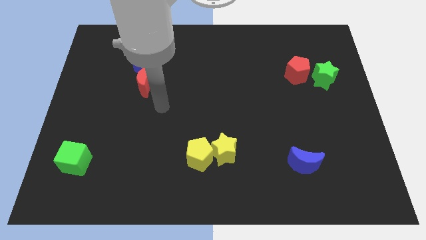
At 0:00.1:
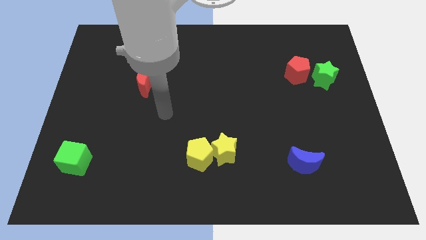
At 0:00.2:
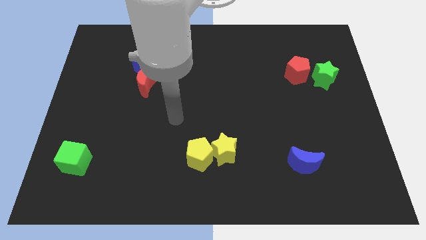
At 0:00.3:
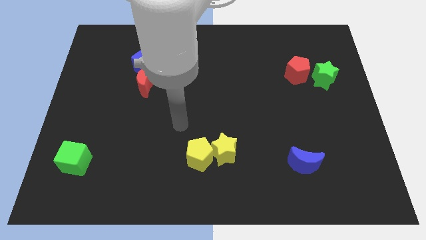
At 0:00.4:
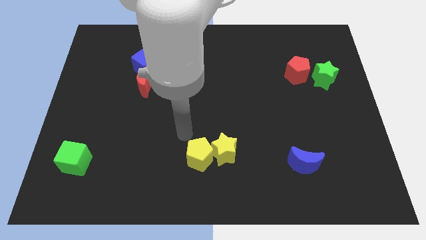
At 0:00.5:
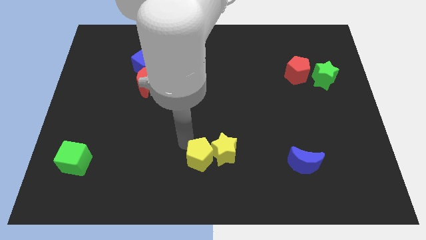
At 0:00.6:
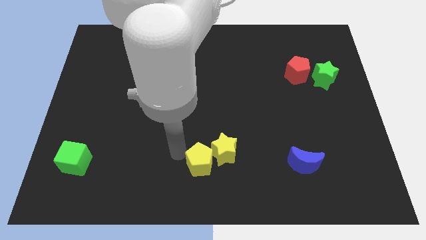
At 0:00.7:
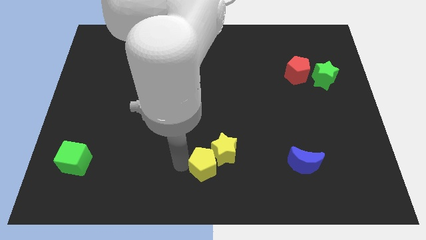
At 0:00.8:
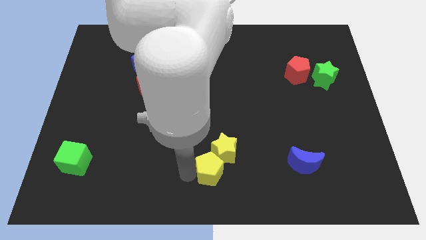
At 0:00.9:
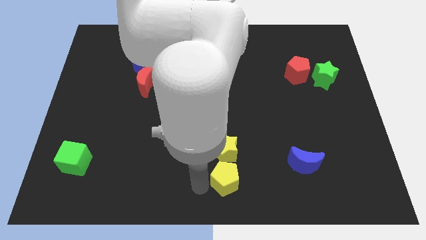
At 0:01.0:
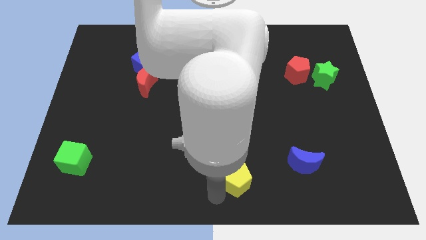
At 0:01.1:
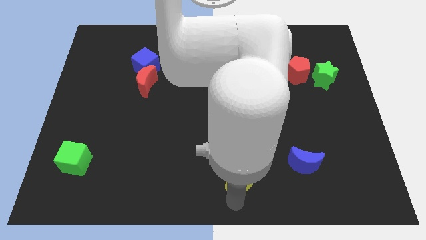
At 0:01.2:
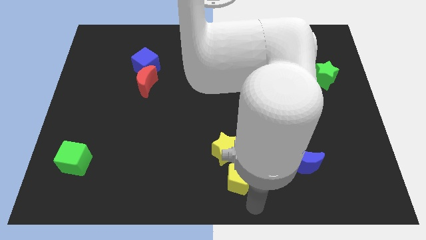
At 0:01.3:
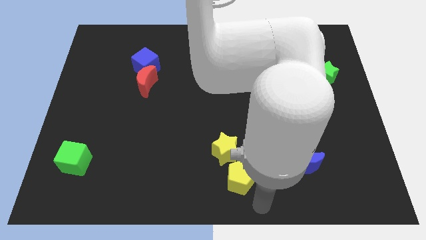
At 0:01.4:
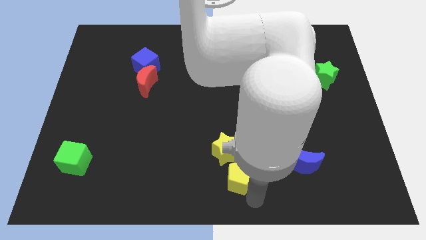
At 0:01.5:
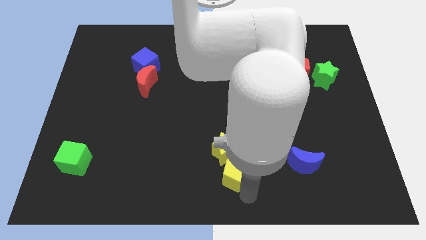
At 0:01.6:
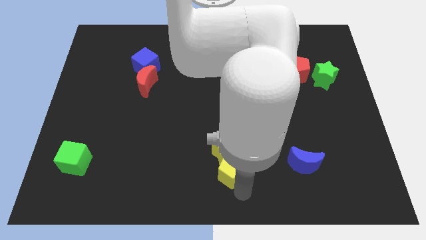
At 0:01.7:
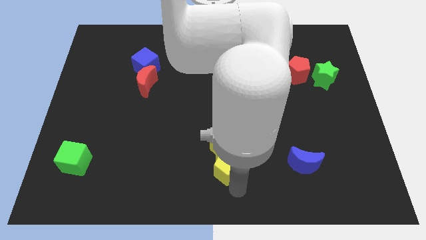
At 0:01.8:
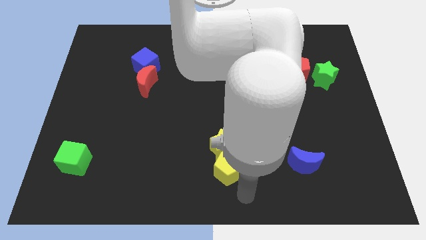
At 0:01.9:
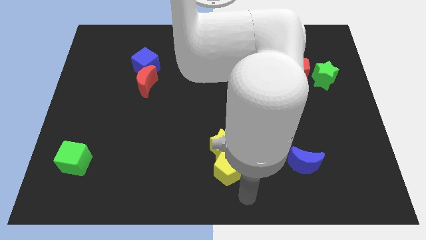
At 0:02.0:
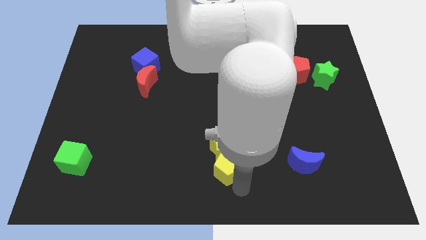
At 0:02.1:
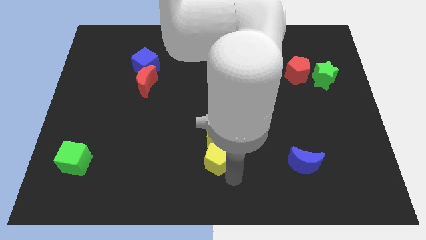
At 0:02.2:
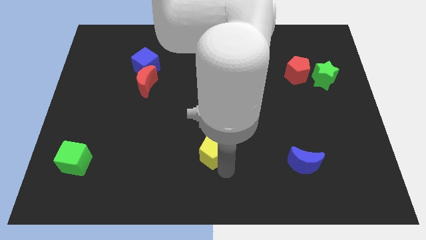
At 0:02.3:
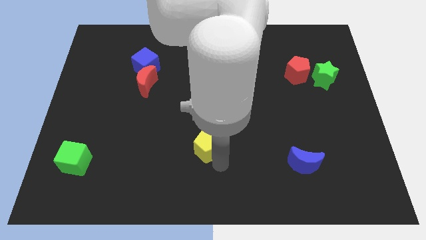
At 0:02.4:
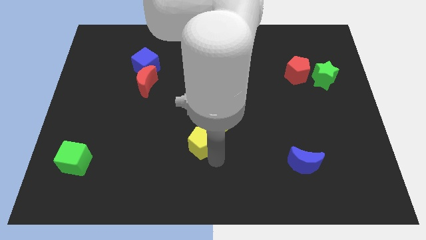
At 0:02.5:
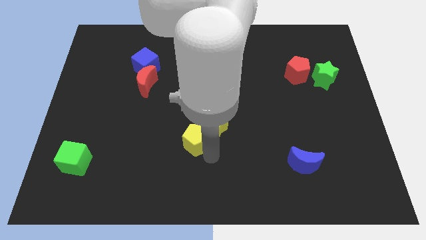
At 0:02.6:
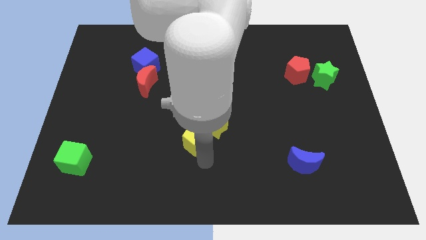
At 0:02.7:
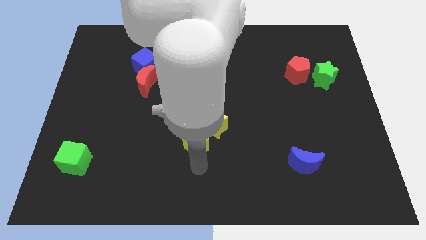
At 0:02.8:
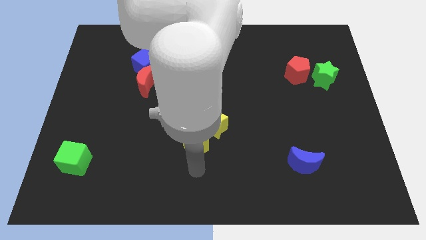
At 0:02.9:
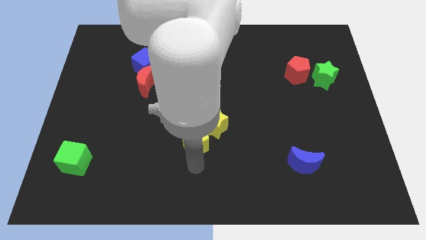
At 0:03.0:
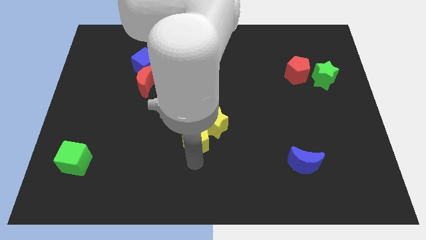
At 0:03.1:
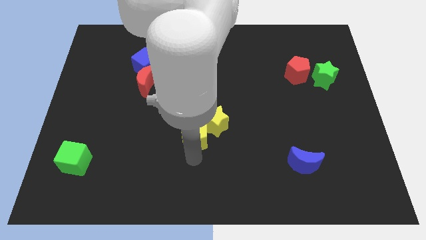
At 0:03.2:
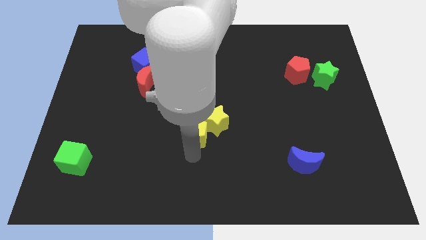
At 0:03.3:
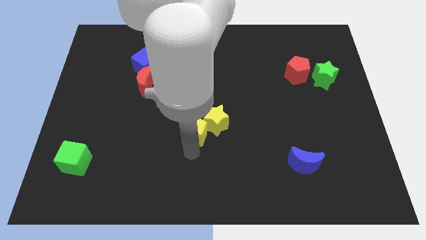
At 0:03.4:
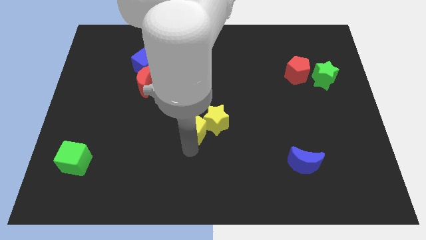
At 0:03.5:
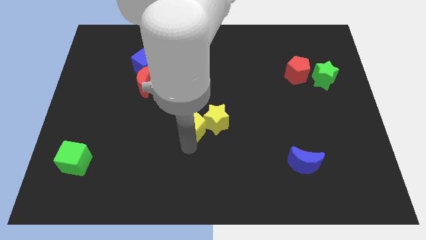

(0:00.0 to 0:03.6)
push the yellow pentagon a bit upwards

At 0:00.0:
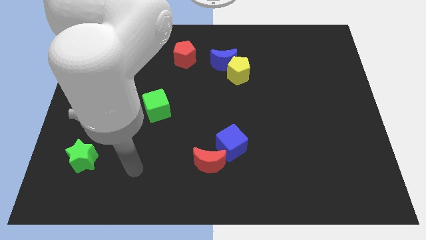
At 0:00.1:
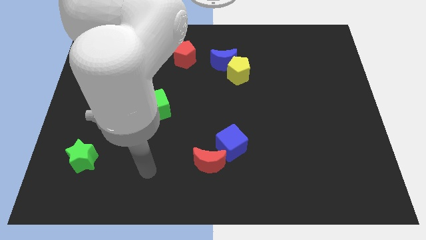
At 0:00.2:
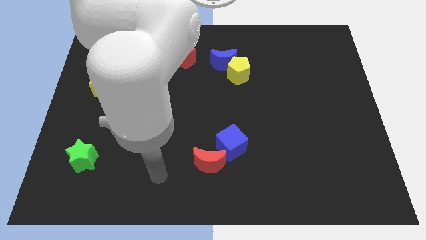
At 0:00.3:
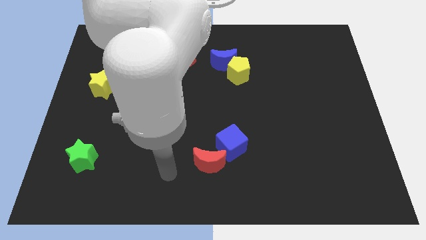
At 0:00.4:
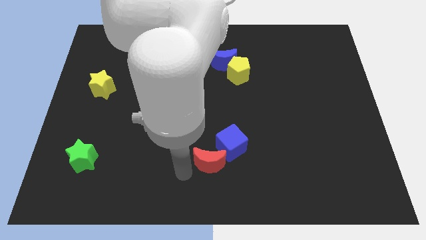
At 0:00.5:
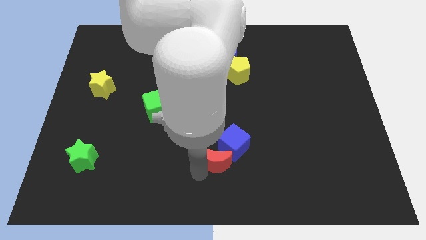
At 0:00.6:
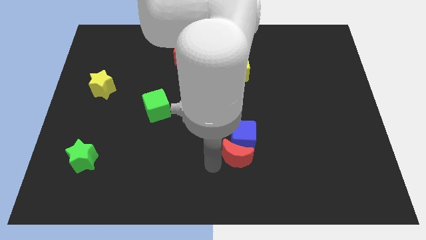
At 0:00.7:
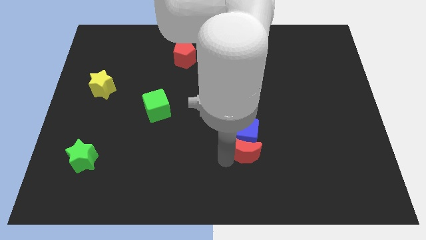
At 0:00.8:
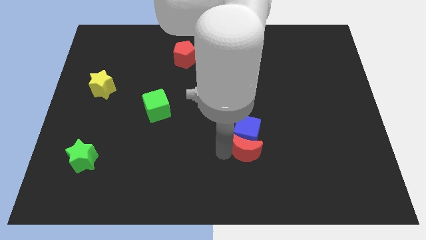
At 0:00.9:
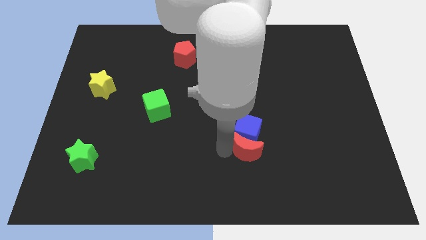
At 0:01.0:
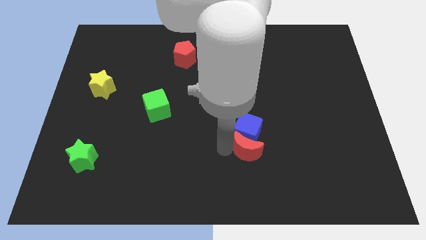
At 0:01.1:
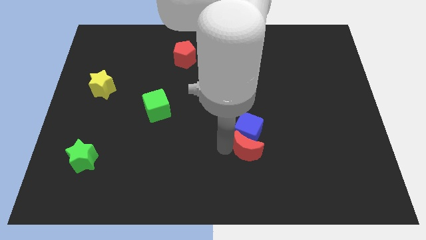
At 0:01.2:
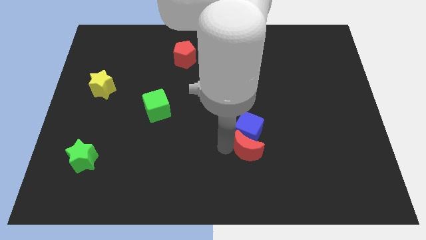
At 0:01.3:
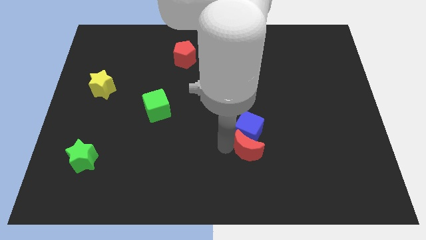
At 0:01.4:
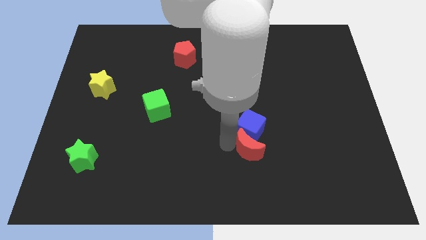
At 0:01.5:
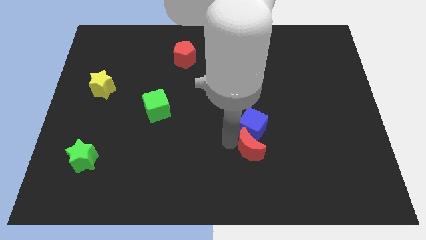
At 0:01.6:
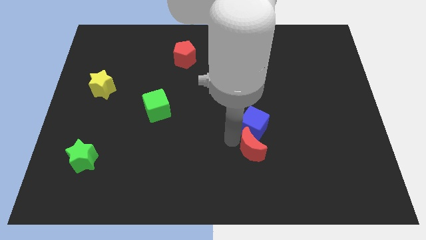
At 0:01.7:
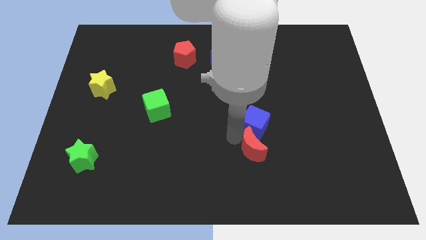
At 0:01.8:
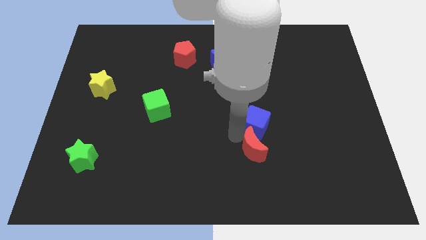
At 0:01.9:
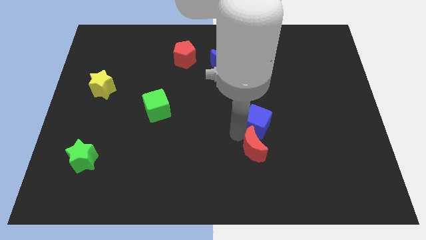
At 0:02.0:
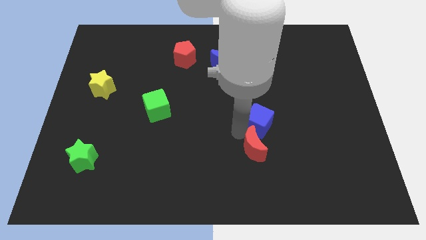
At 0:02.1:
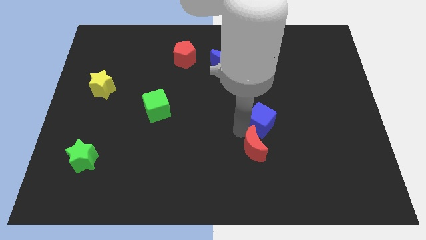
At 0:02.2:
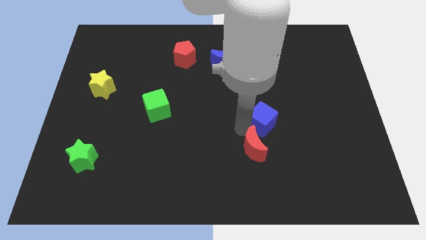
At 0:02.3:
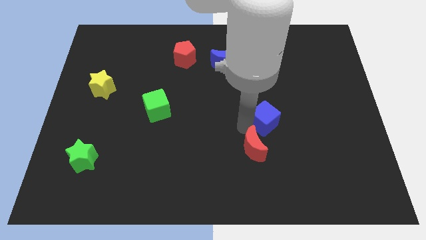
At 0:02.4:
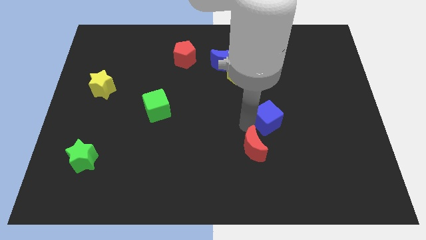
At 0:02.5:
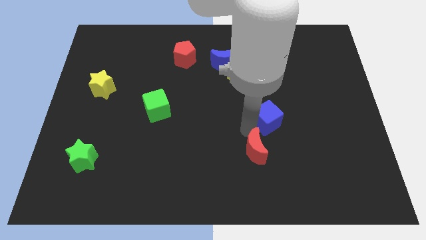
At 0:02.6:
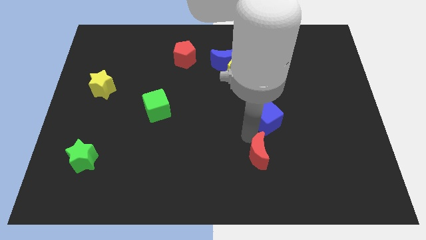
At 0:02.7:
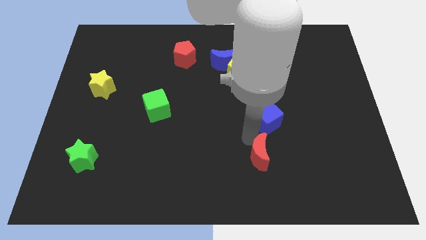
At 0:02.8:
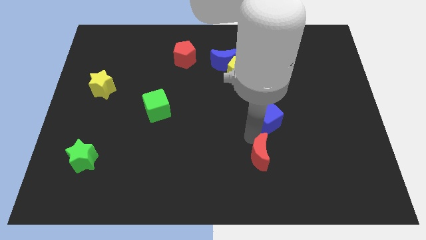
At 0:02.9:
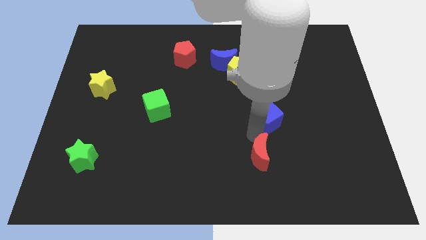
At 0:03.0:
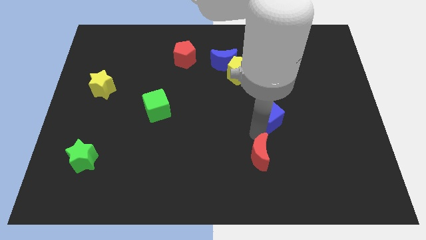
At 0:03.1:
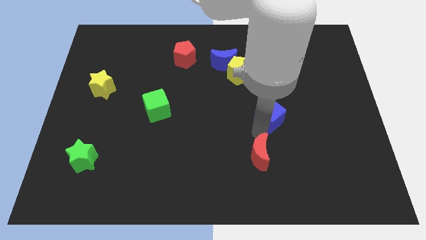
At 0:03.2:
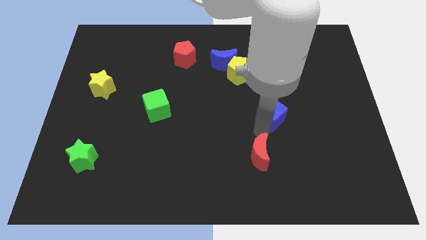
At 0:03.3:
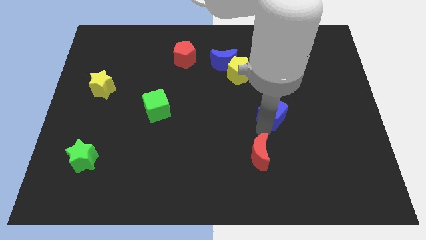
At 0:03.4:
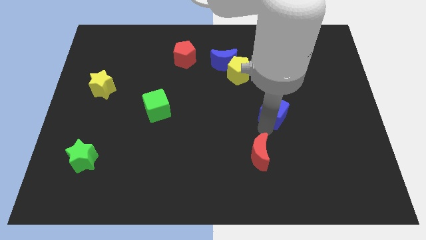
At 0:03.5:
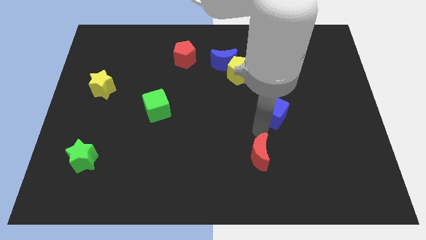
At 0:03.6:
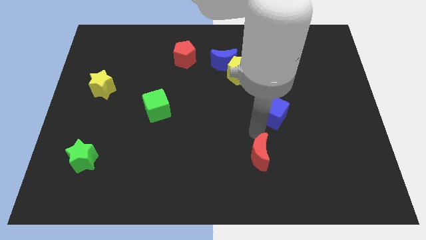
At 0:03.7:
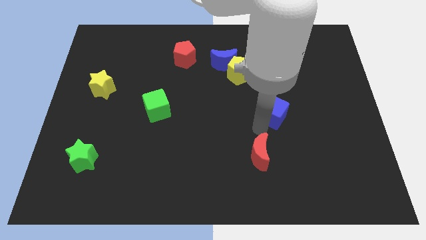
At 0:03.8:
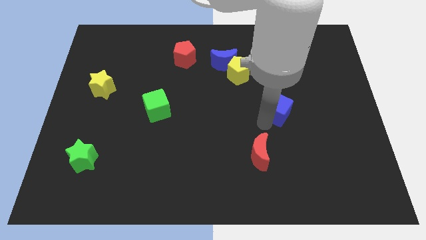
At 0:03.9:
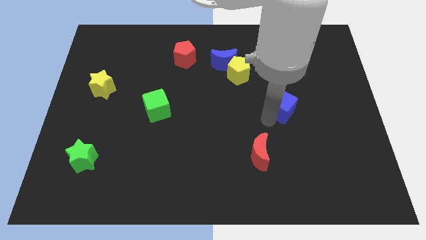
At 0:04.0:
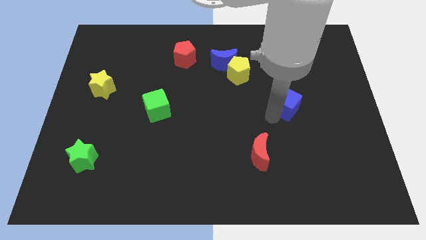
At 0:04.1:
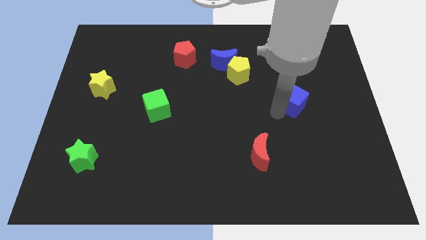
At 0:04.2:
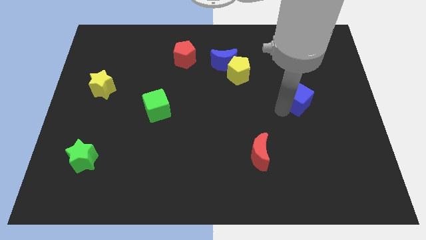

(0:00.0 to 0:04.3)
move the blue cube diagonally upwards and right
